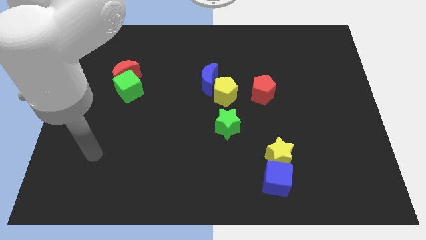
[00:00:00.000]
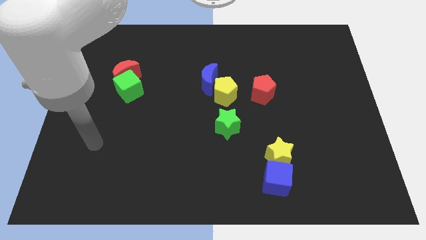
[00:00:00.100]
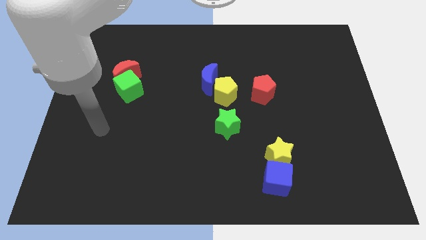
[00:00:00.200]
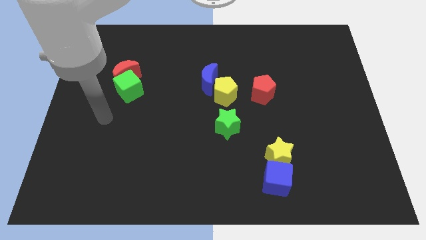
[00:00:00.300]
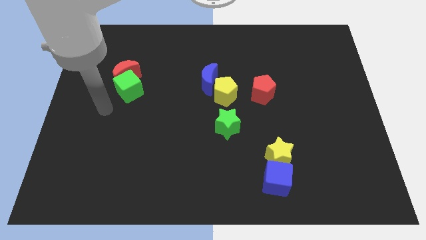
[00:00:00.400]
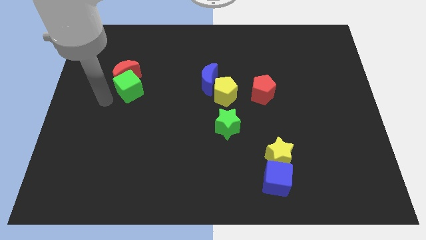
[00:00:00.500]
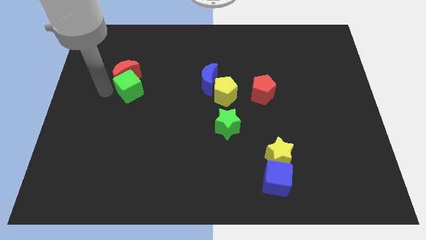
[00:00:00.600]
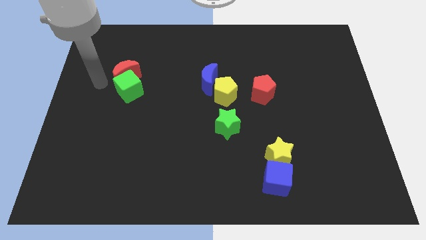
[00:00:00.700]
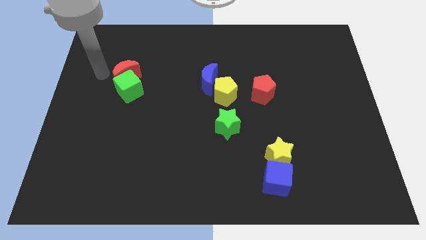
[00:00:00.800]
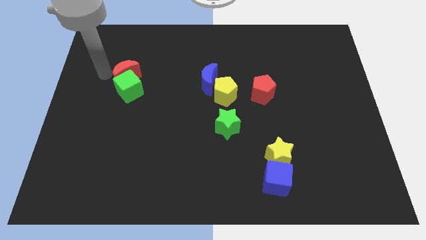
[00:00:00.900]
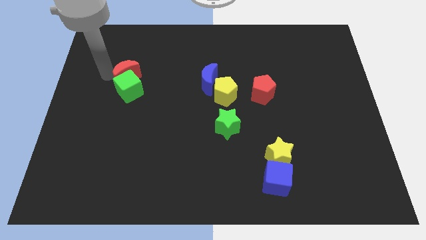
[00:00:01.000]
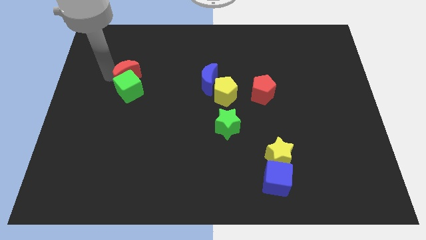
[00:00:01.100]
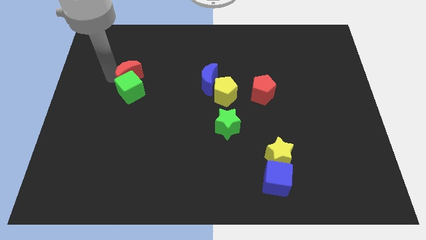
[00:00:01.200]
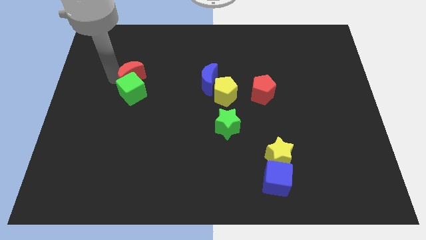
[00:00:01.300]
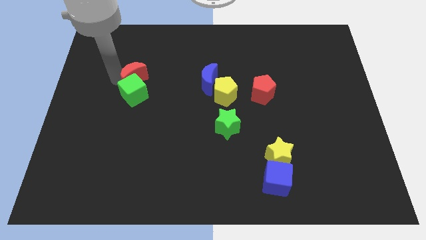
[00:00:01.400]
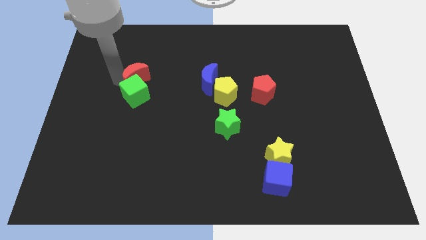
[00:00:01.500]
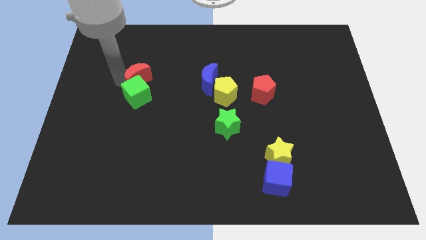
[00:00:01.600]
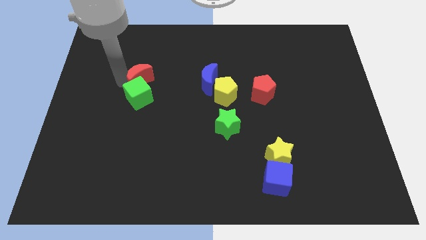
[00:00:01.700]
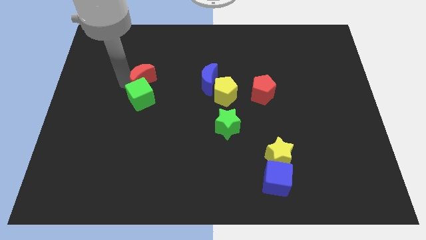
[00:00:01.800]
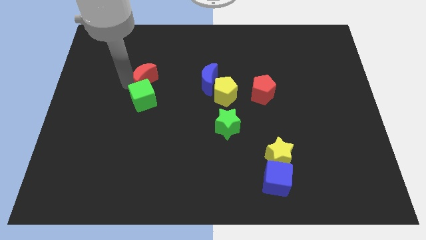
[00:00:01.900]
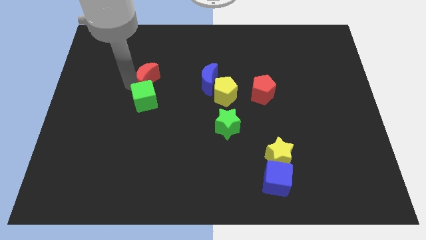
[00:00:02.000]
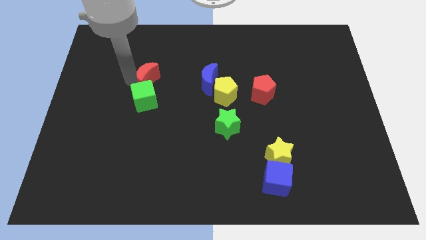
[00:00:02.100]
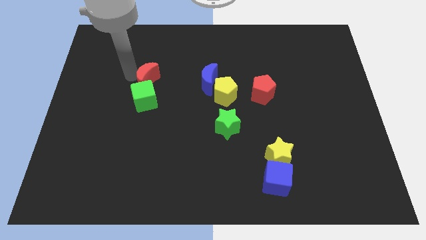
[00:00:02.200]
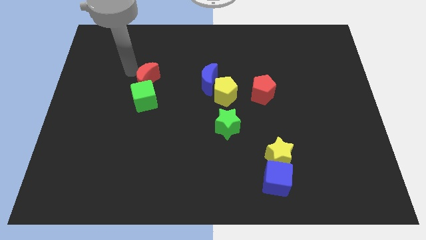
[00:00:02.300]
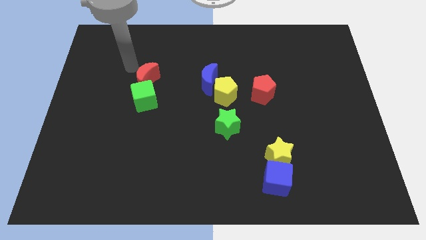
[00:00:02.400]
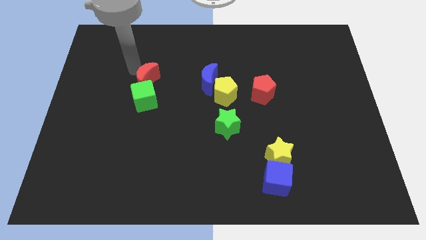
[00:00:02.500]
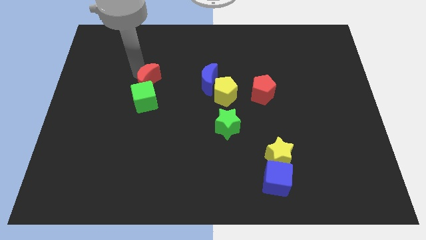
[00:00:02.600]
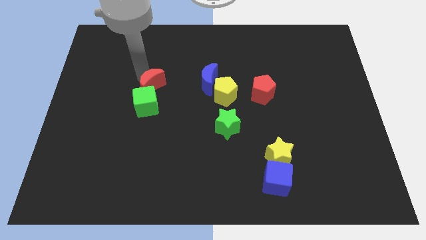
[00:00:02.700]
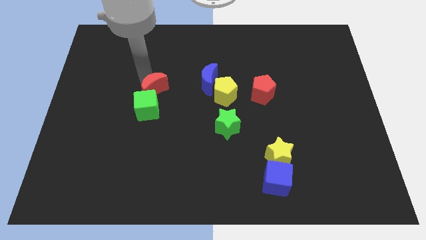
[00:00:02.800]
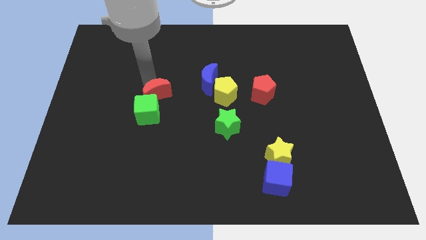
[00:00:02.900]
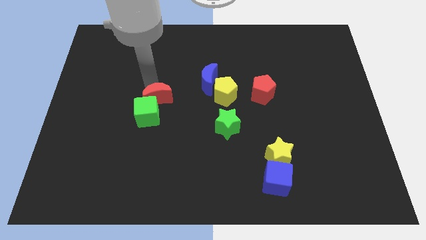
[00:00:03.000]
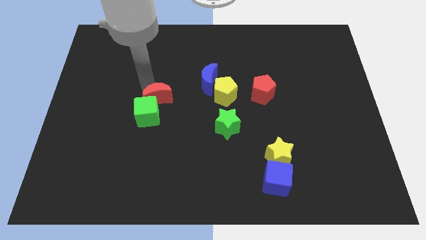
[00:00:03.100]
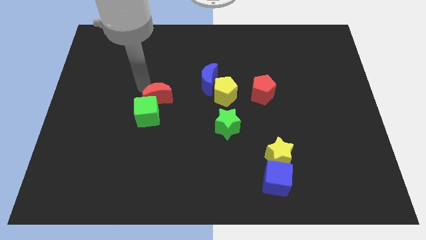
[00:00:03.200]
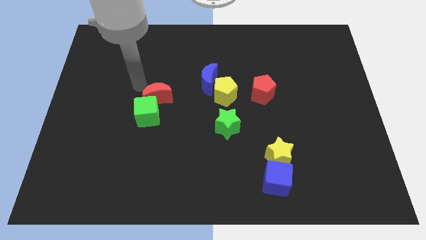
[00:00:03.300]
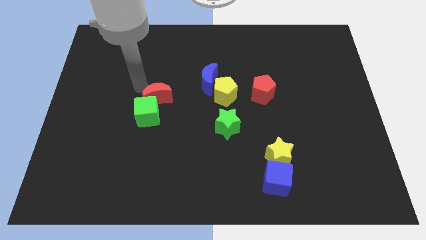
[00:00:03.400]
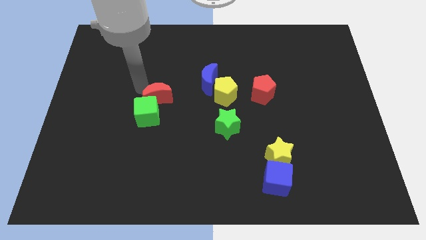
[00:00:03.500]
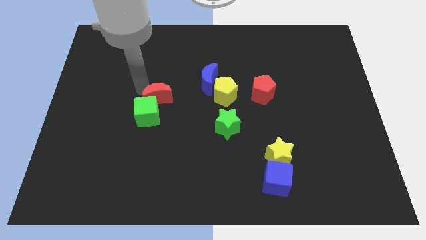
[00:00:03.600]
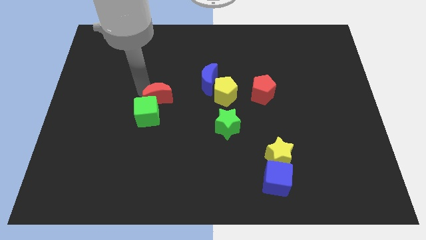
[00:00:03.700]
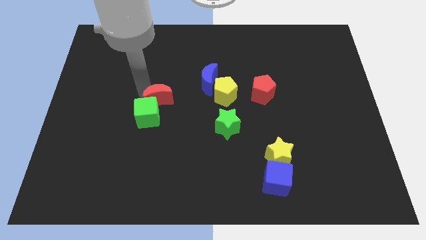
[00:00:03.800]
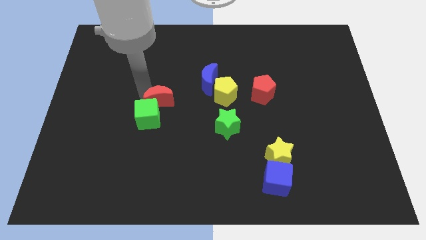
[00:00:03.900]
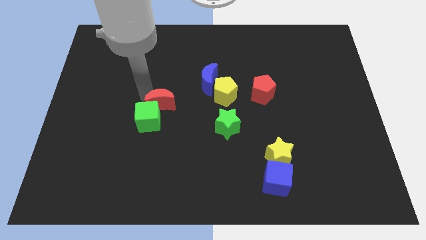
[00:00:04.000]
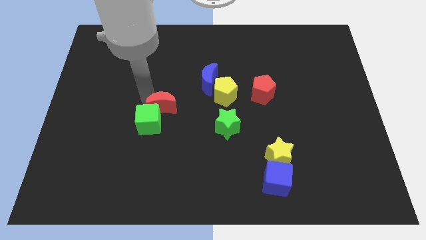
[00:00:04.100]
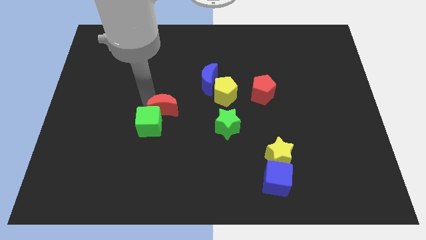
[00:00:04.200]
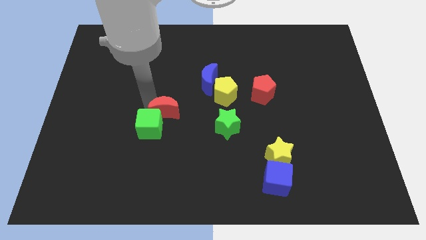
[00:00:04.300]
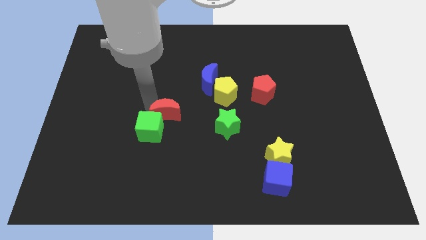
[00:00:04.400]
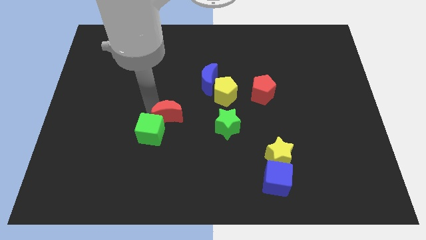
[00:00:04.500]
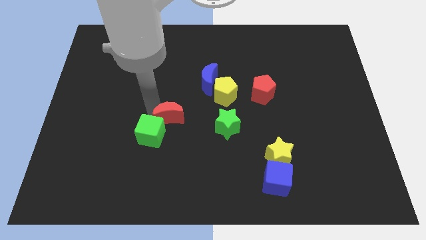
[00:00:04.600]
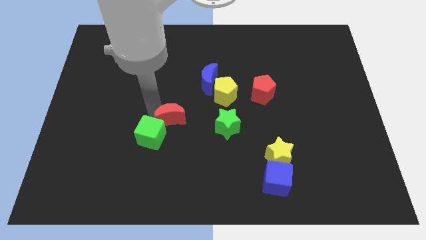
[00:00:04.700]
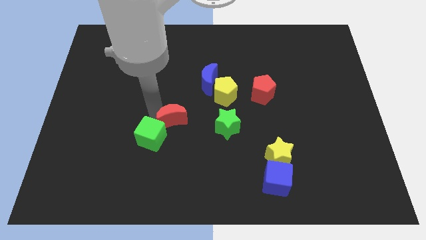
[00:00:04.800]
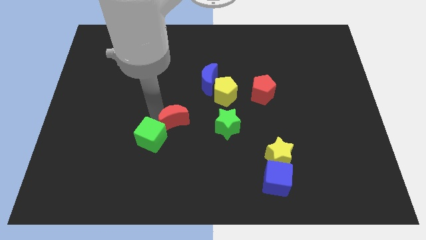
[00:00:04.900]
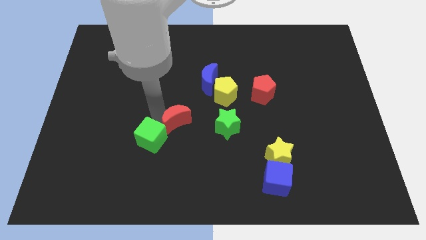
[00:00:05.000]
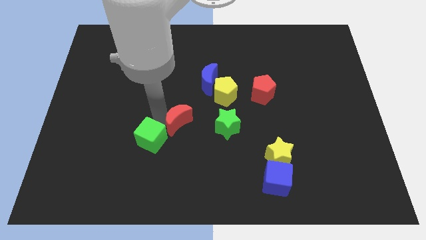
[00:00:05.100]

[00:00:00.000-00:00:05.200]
slide the red moon diagonally down and right

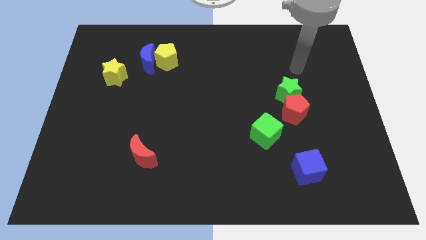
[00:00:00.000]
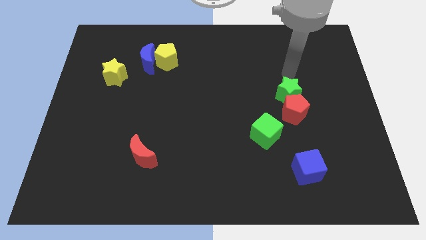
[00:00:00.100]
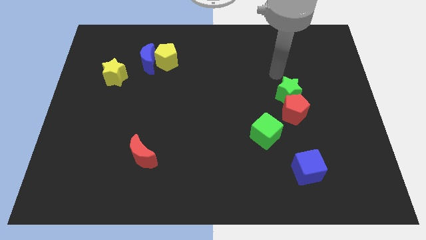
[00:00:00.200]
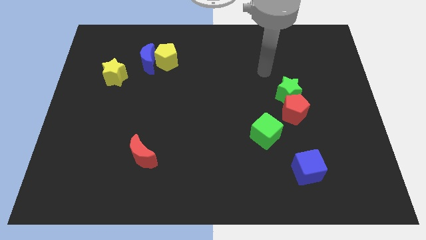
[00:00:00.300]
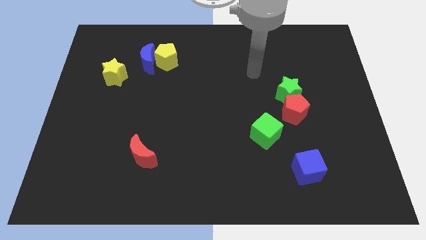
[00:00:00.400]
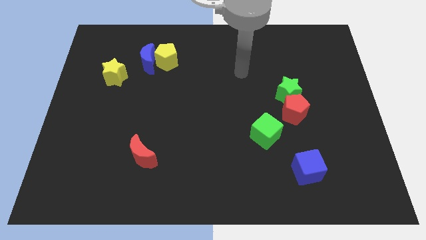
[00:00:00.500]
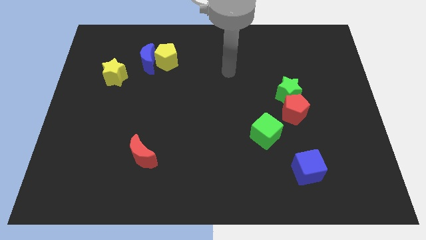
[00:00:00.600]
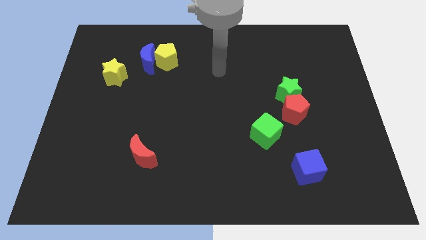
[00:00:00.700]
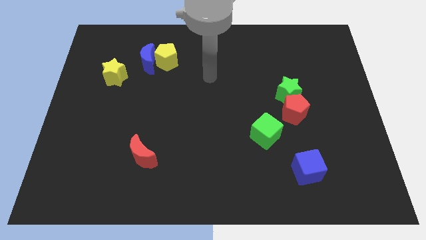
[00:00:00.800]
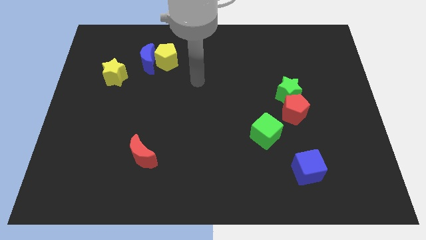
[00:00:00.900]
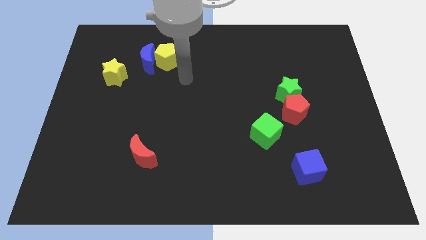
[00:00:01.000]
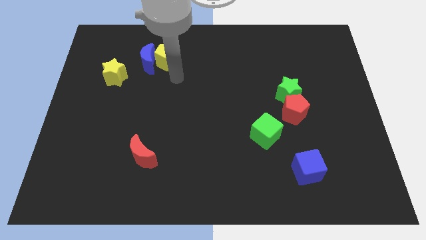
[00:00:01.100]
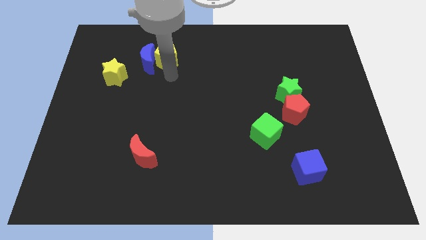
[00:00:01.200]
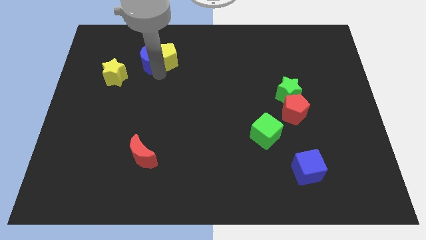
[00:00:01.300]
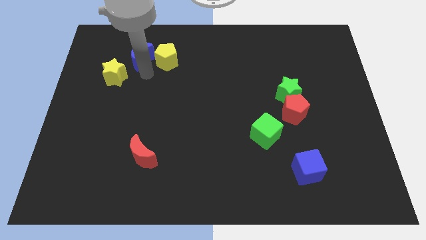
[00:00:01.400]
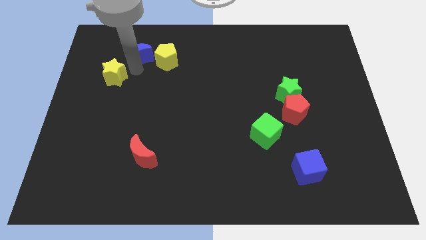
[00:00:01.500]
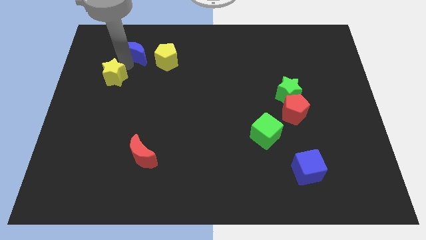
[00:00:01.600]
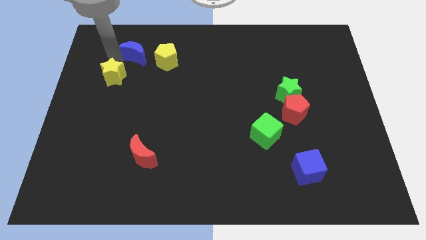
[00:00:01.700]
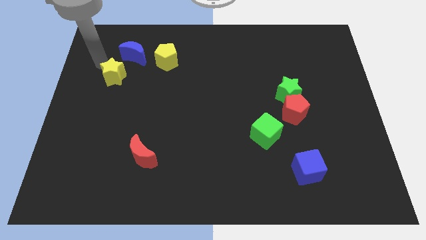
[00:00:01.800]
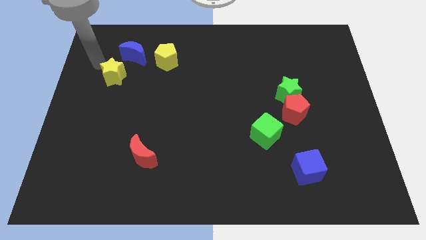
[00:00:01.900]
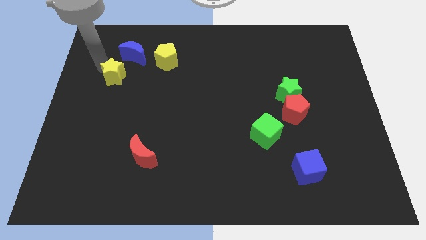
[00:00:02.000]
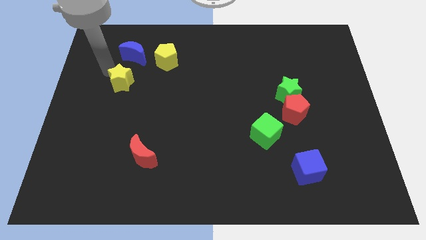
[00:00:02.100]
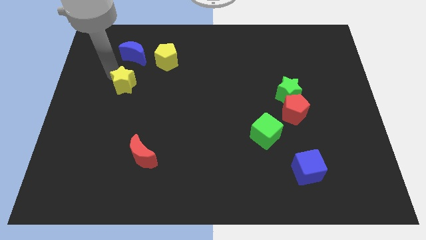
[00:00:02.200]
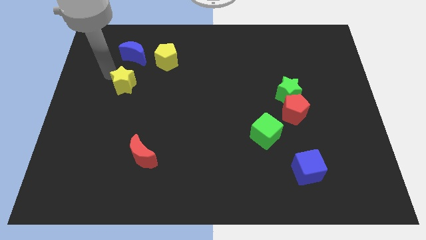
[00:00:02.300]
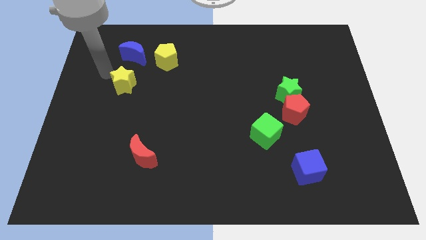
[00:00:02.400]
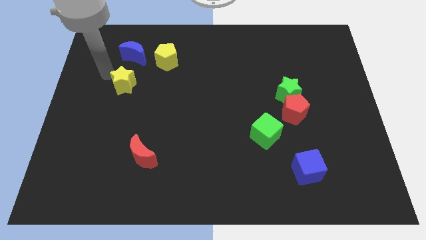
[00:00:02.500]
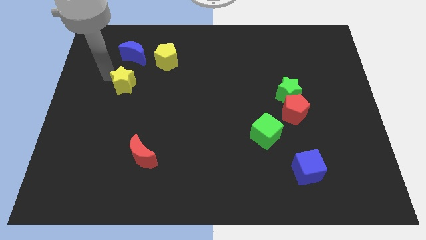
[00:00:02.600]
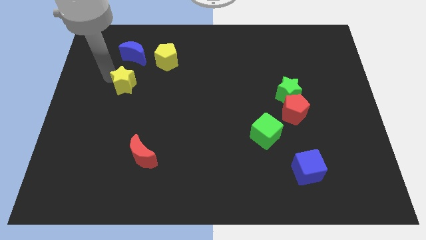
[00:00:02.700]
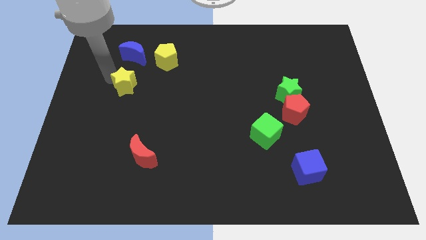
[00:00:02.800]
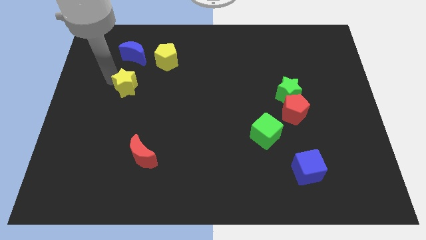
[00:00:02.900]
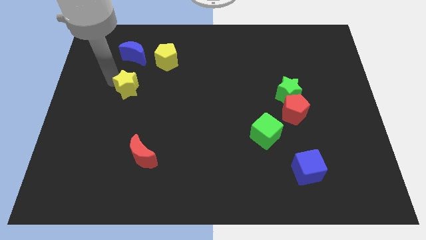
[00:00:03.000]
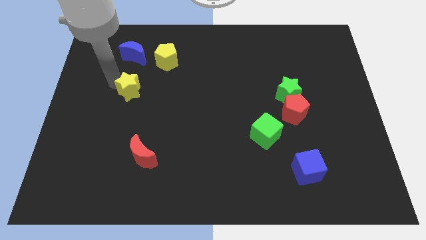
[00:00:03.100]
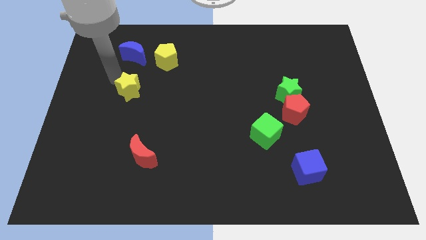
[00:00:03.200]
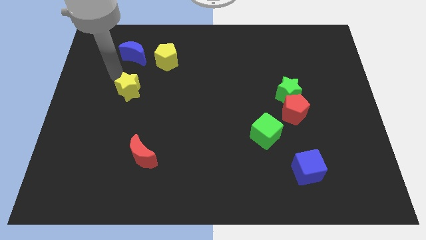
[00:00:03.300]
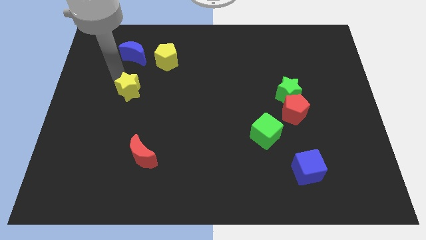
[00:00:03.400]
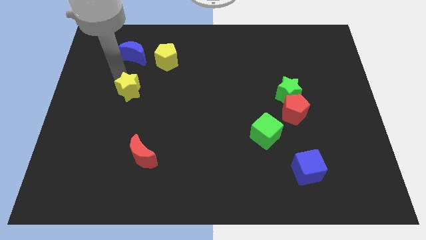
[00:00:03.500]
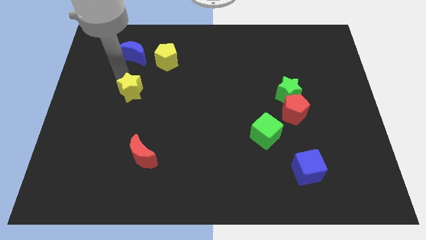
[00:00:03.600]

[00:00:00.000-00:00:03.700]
slightly slide the yellow star downwards and right diagonally
